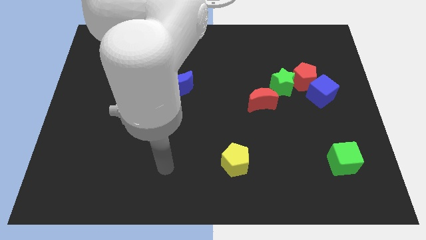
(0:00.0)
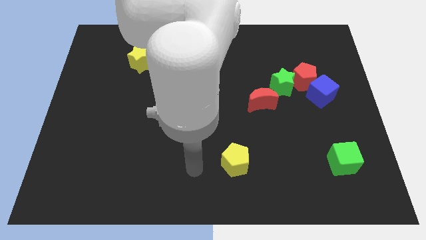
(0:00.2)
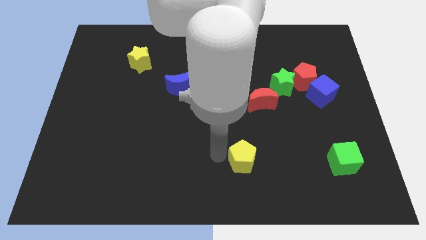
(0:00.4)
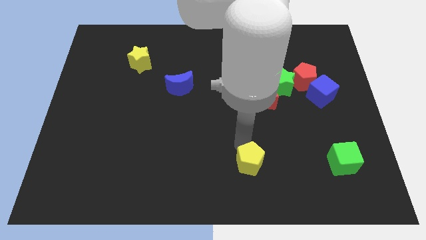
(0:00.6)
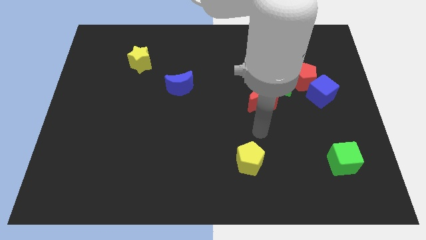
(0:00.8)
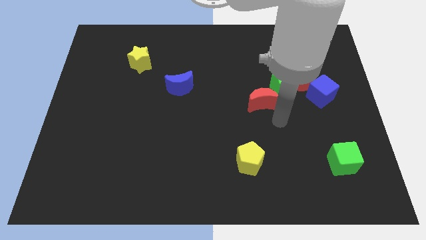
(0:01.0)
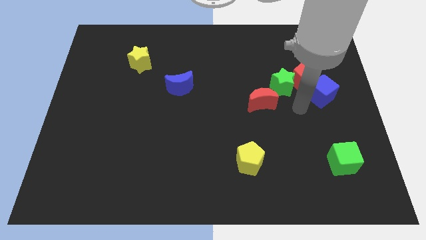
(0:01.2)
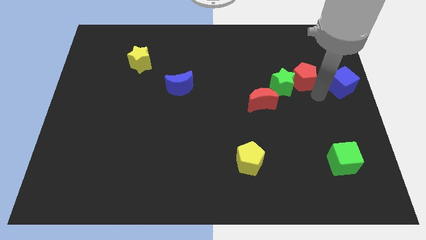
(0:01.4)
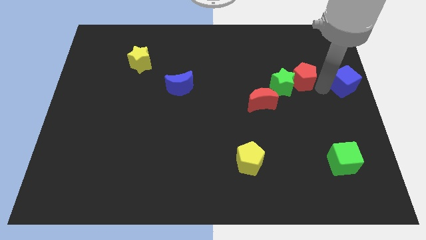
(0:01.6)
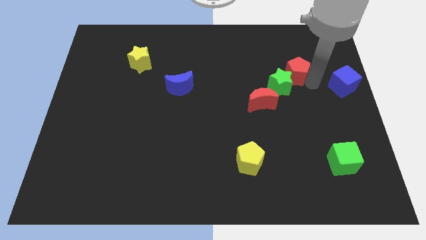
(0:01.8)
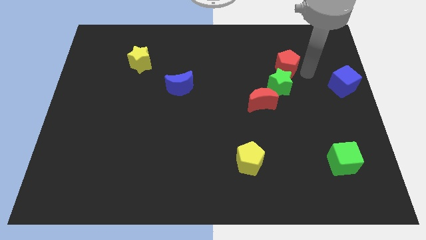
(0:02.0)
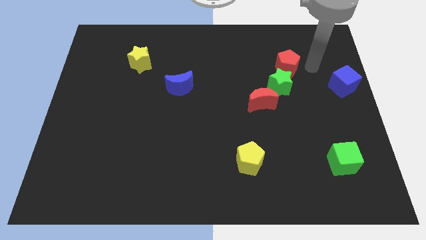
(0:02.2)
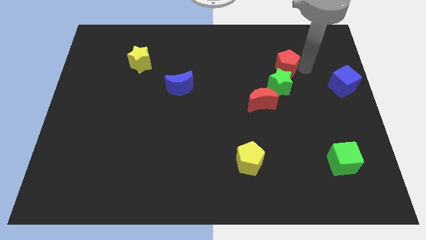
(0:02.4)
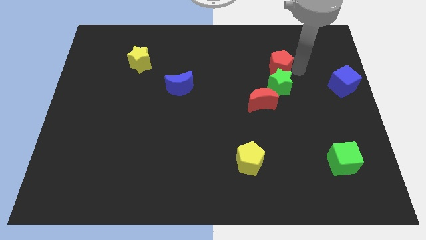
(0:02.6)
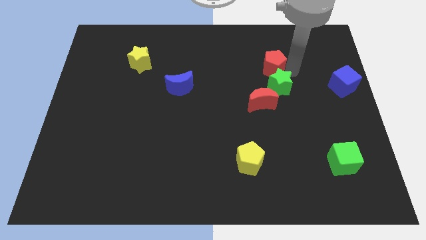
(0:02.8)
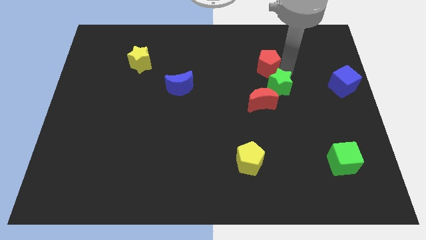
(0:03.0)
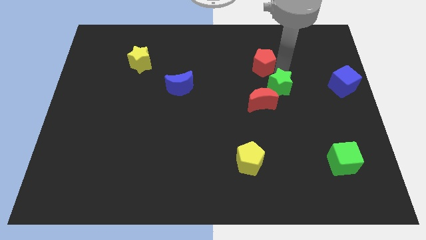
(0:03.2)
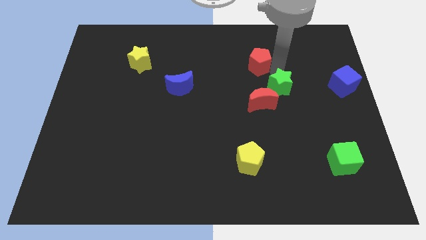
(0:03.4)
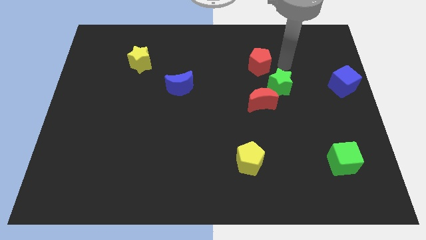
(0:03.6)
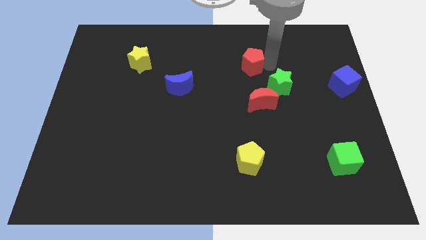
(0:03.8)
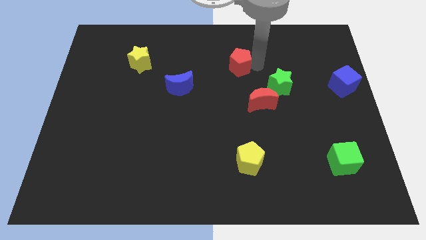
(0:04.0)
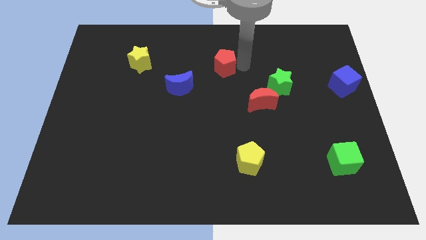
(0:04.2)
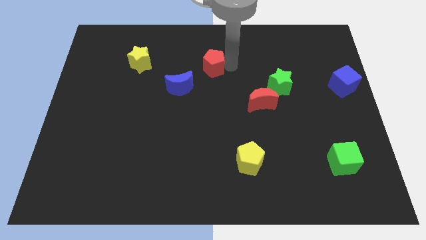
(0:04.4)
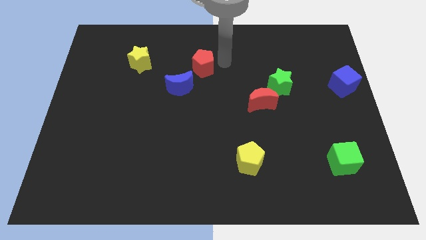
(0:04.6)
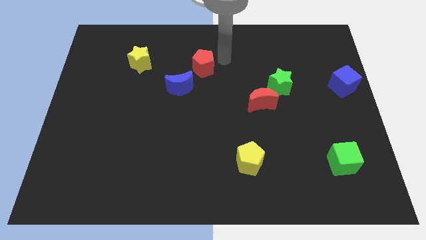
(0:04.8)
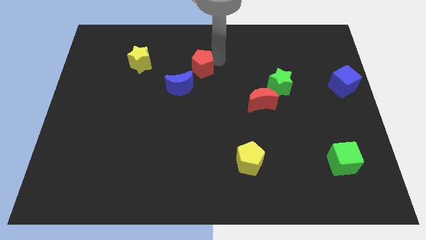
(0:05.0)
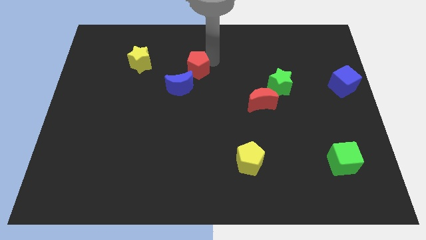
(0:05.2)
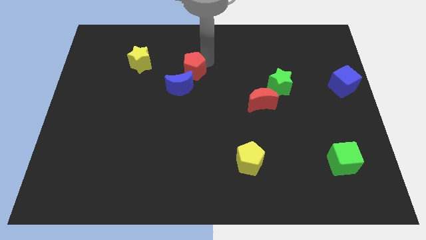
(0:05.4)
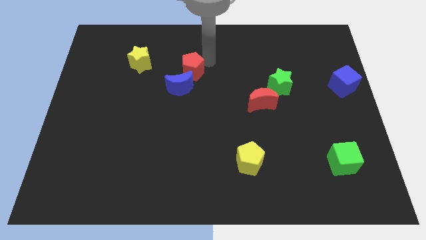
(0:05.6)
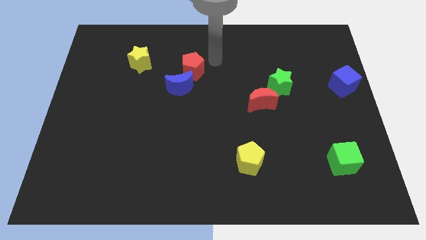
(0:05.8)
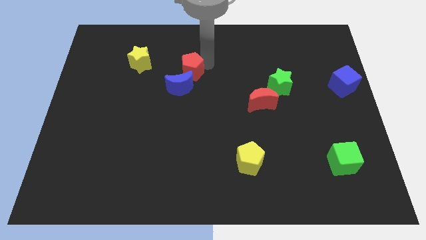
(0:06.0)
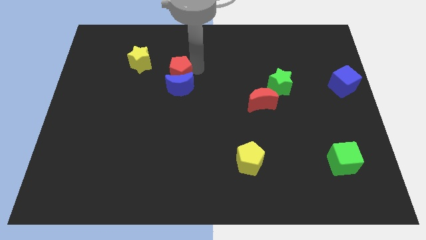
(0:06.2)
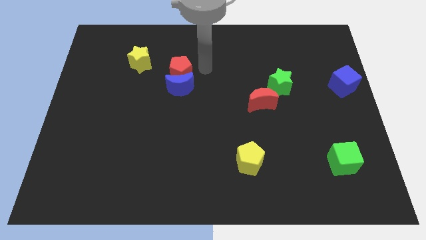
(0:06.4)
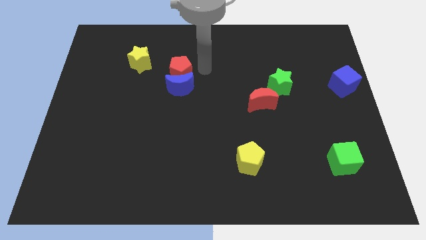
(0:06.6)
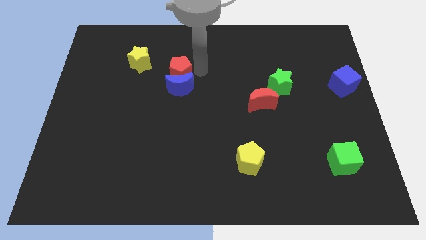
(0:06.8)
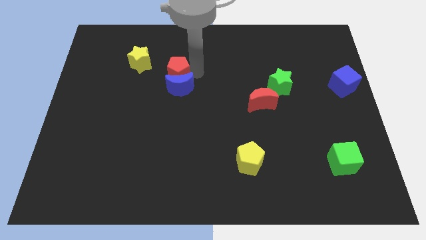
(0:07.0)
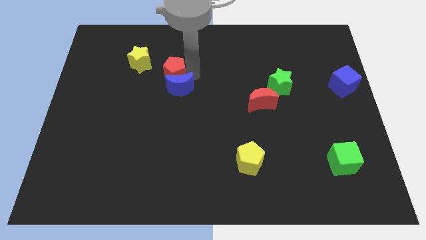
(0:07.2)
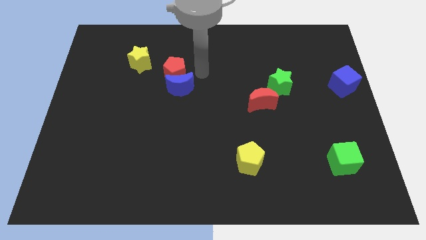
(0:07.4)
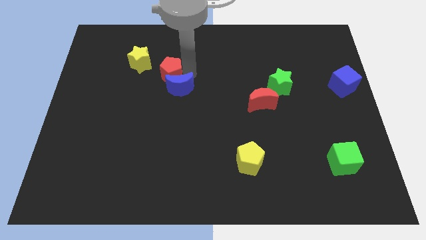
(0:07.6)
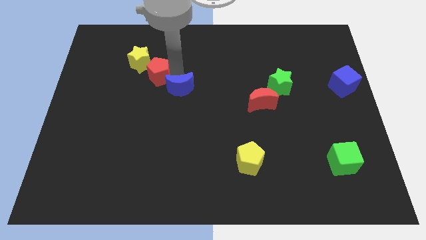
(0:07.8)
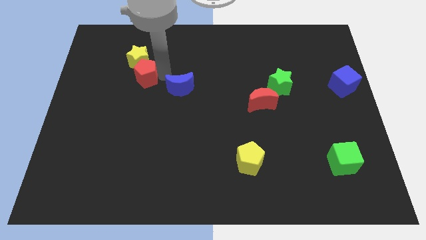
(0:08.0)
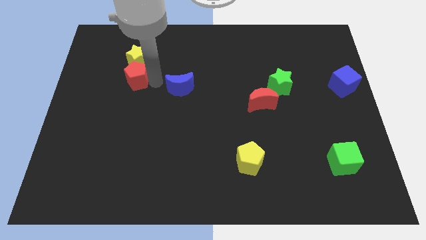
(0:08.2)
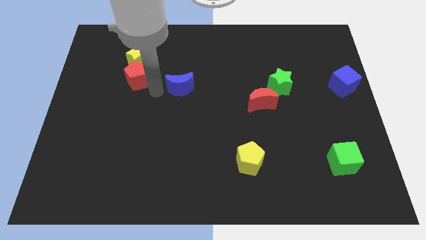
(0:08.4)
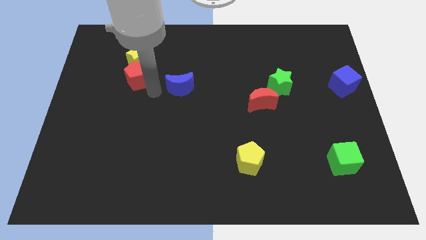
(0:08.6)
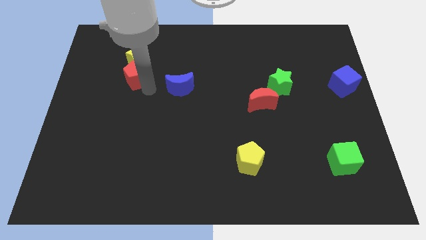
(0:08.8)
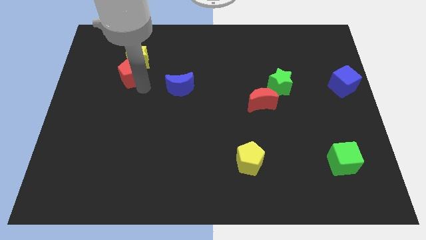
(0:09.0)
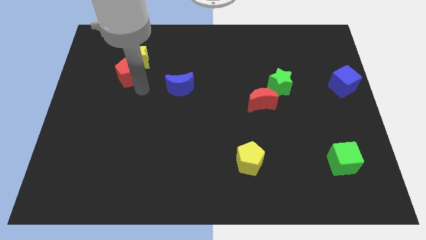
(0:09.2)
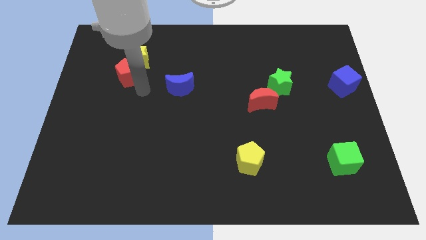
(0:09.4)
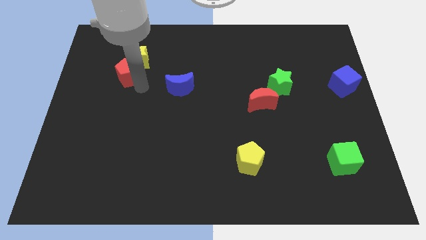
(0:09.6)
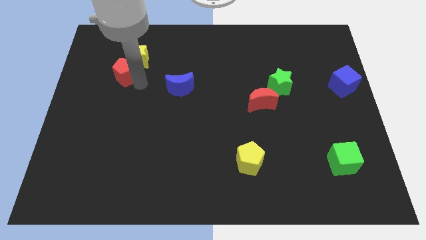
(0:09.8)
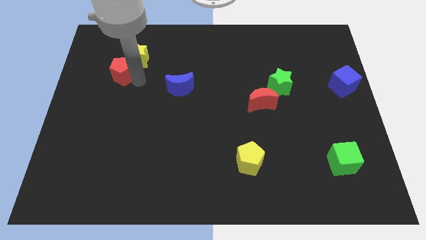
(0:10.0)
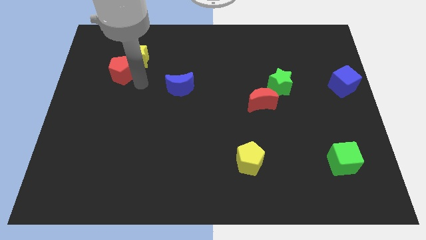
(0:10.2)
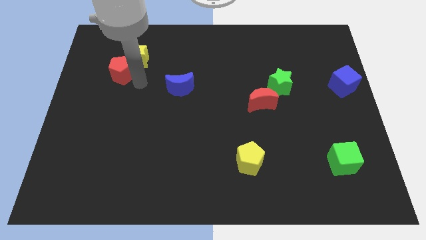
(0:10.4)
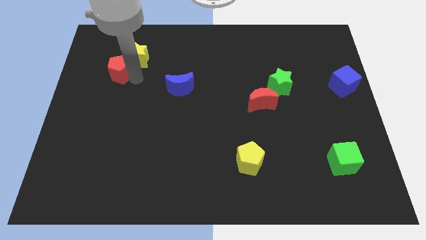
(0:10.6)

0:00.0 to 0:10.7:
move the red pentagon to the left of the yellow star

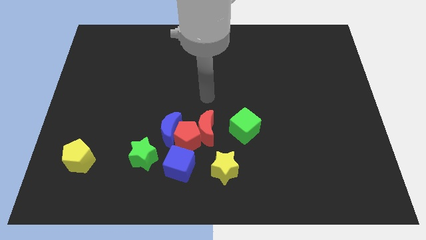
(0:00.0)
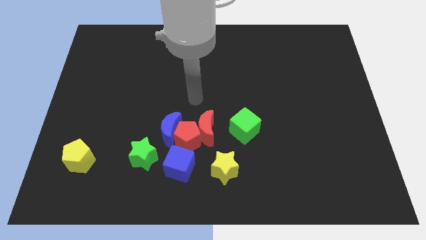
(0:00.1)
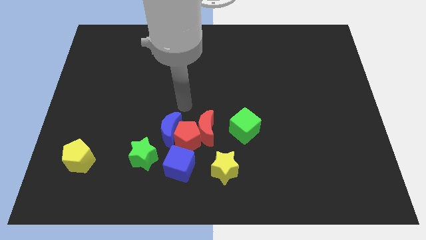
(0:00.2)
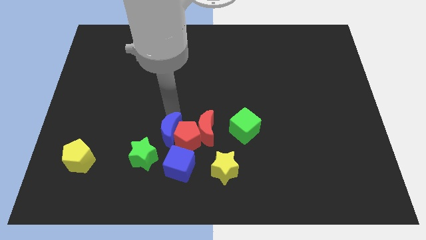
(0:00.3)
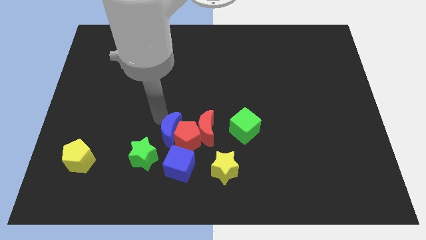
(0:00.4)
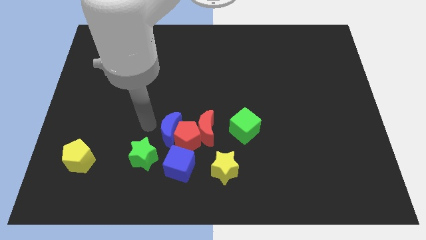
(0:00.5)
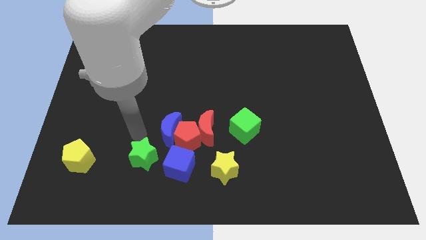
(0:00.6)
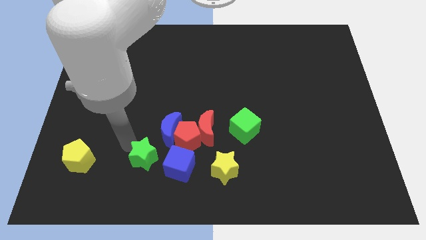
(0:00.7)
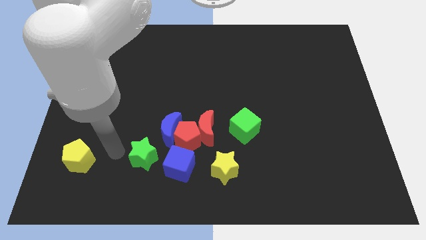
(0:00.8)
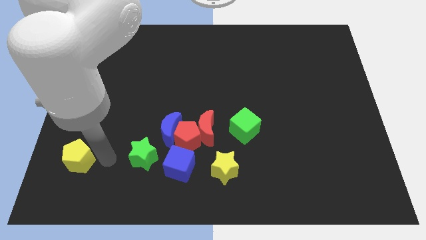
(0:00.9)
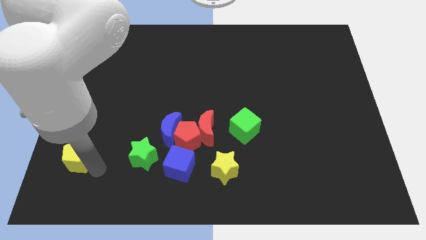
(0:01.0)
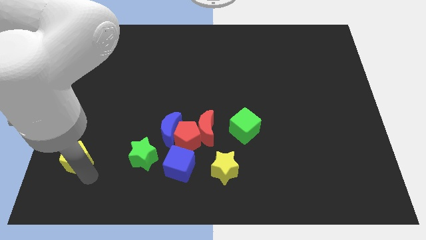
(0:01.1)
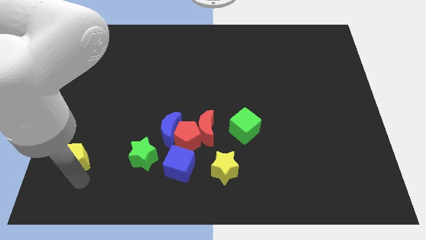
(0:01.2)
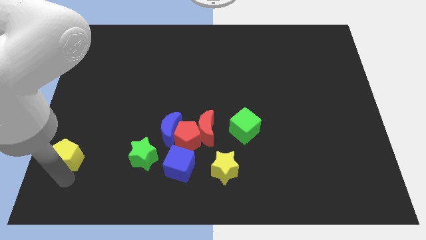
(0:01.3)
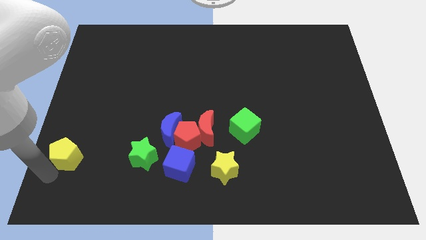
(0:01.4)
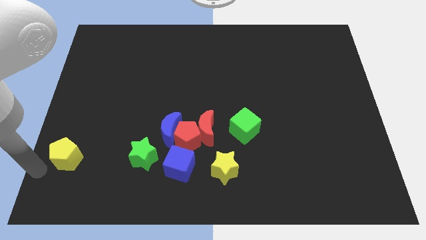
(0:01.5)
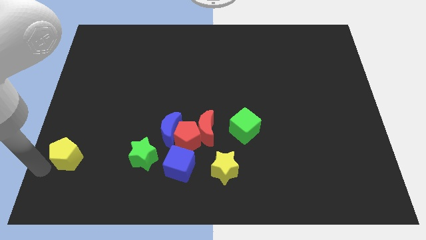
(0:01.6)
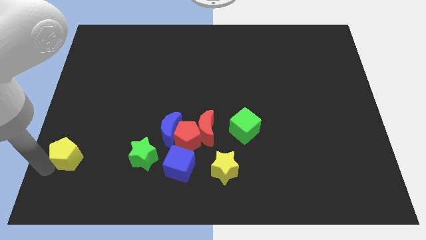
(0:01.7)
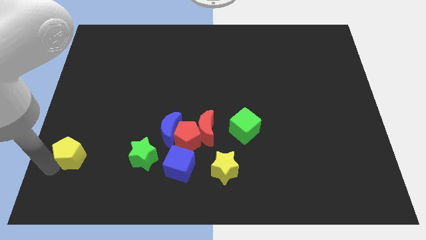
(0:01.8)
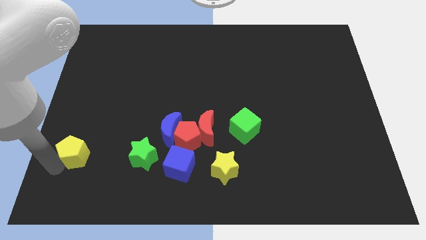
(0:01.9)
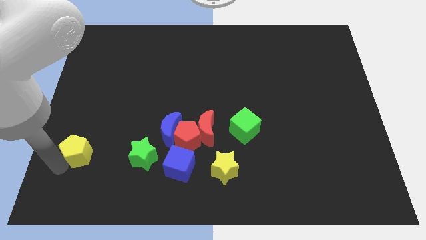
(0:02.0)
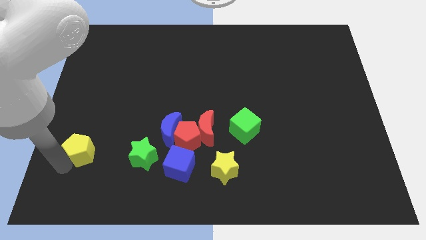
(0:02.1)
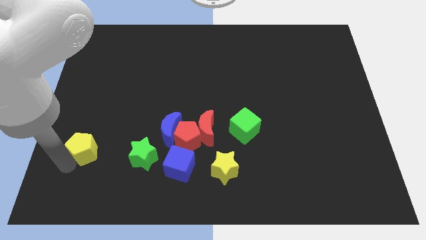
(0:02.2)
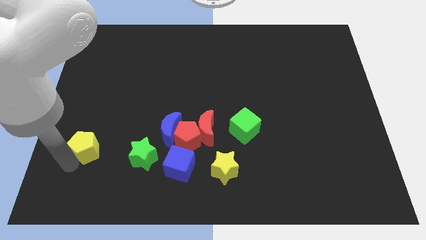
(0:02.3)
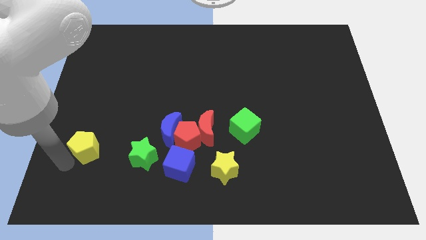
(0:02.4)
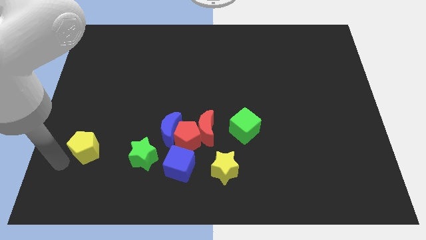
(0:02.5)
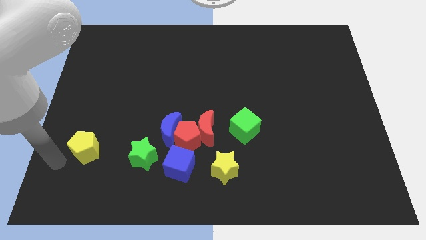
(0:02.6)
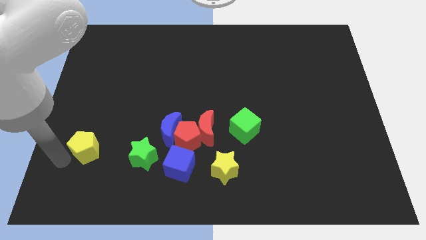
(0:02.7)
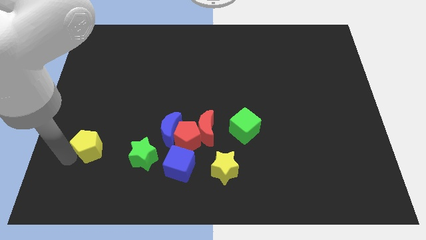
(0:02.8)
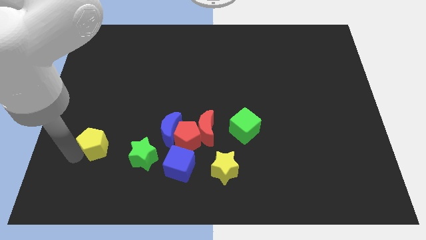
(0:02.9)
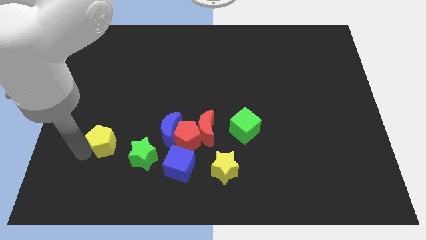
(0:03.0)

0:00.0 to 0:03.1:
push the yellow pentagon to the left of the blue moon
